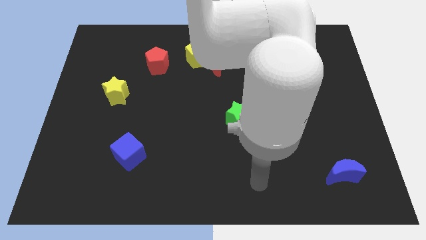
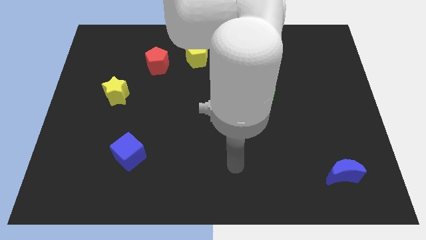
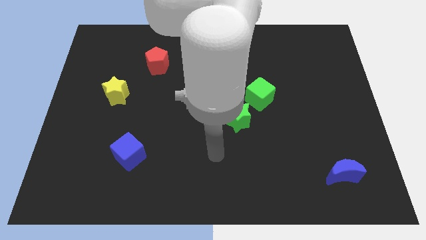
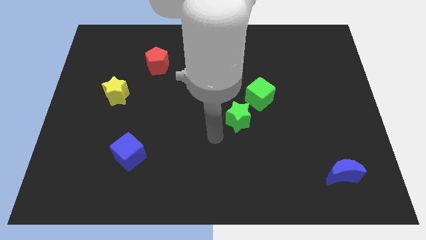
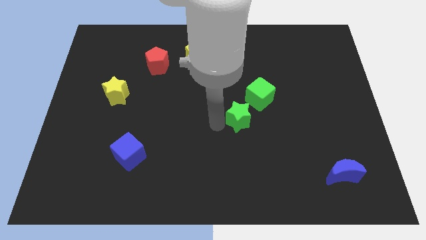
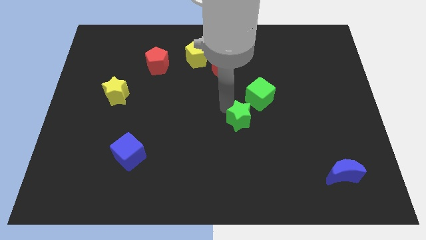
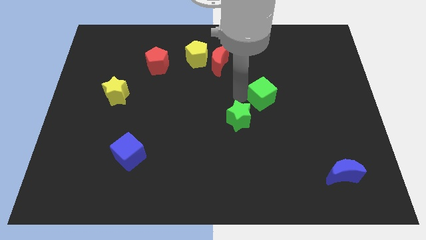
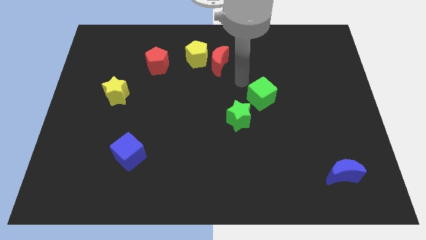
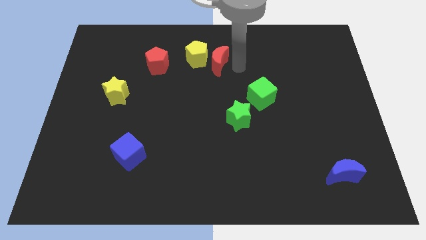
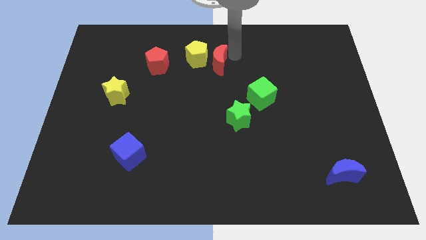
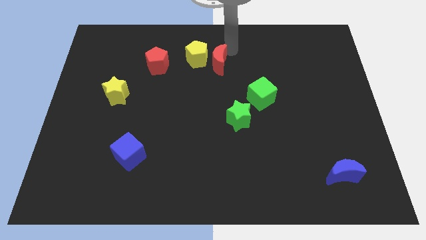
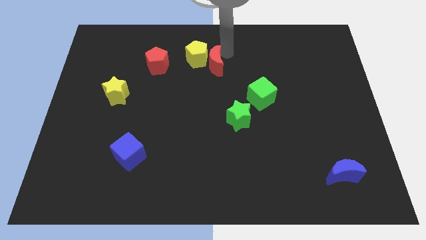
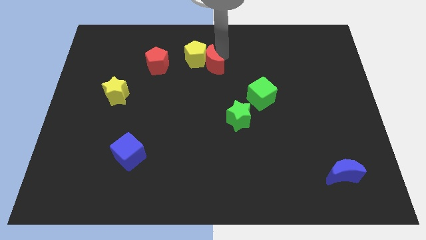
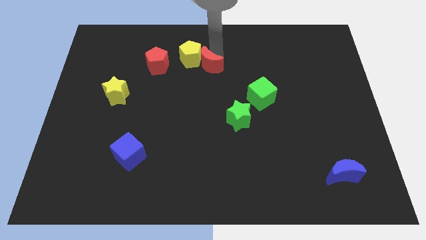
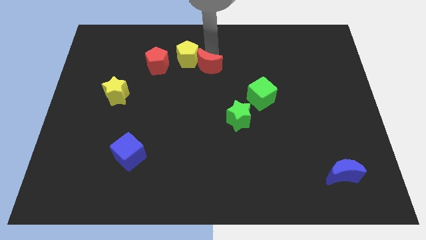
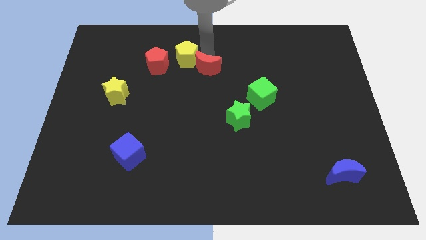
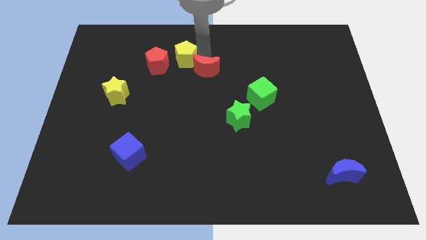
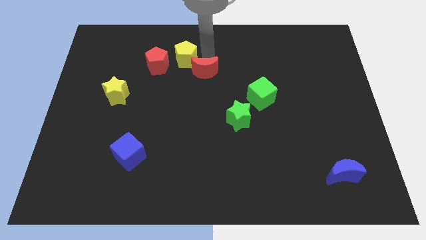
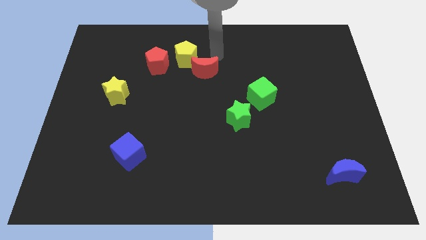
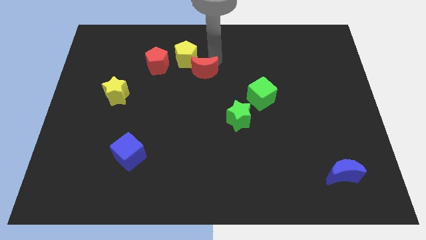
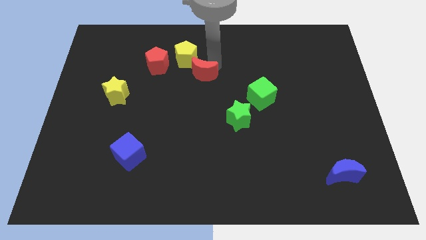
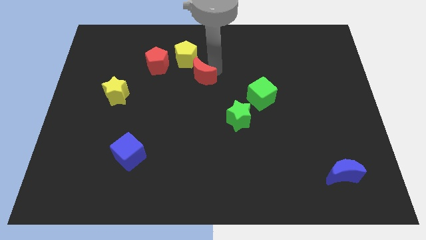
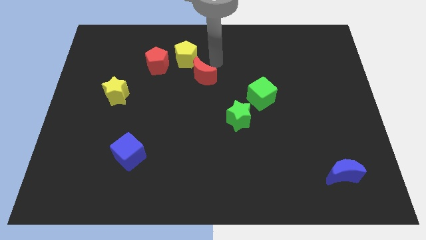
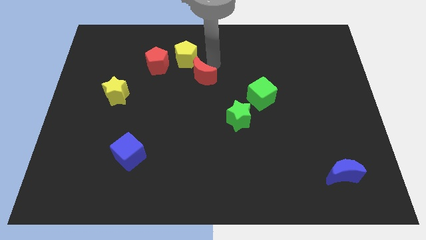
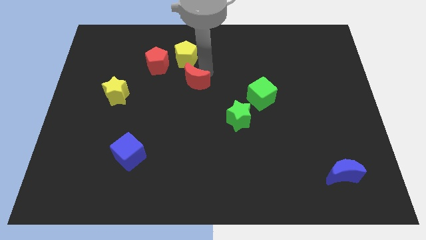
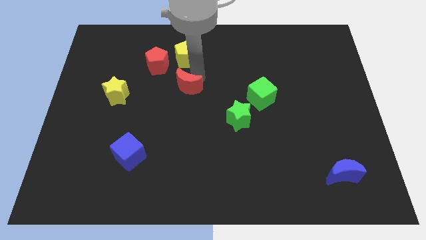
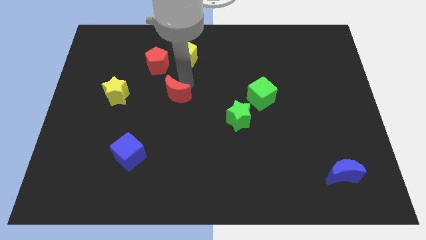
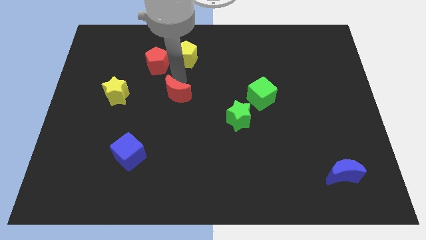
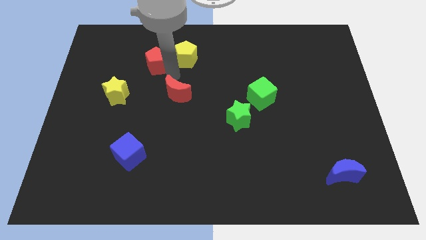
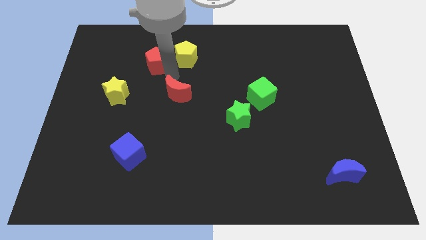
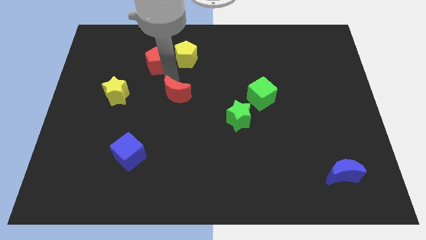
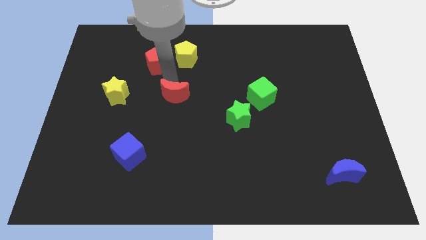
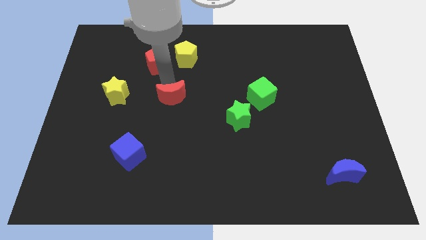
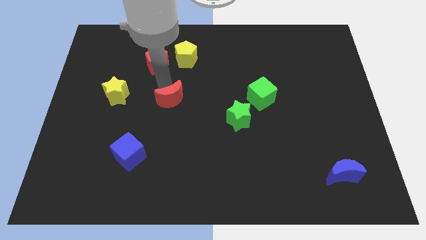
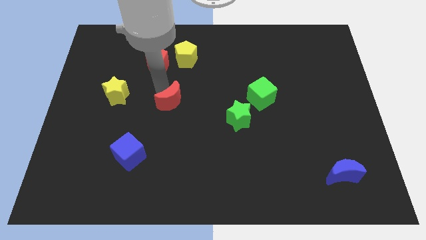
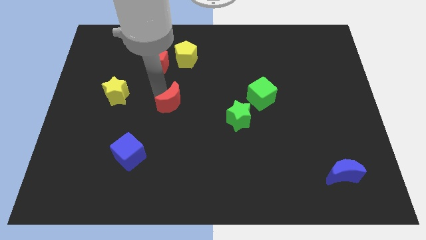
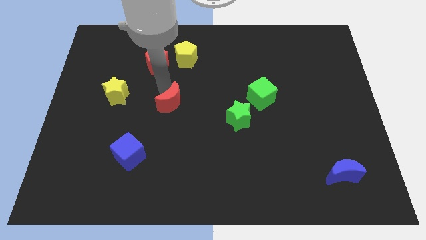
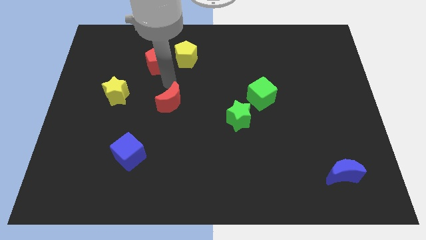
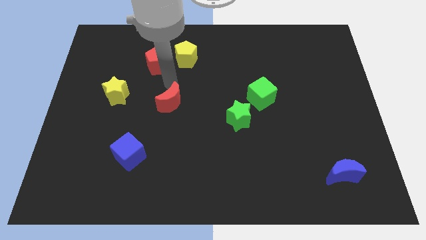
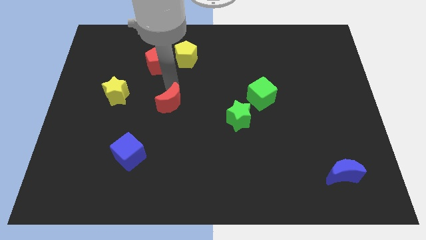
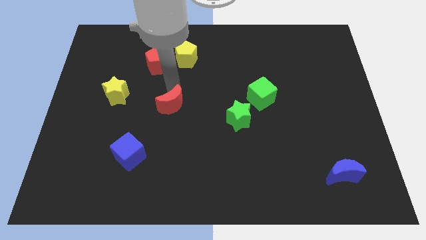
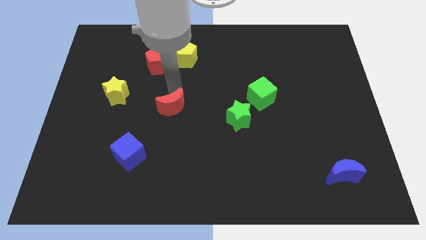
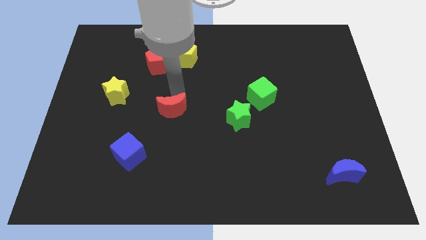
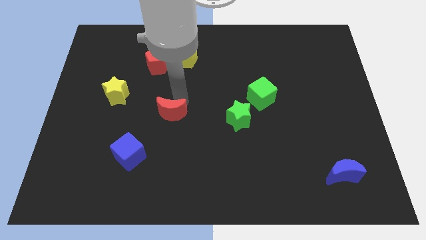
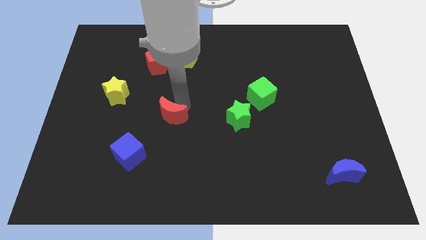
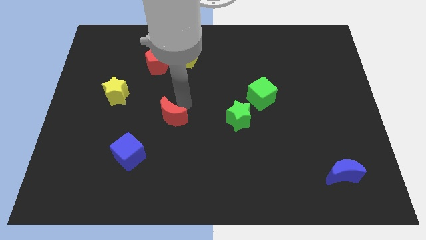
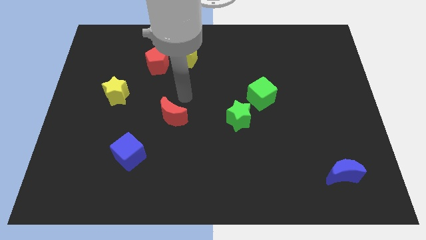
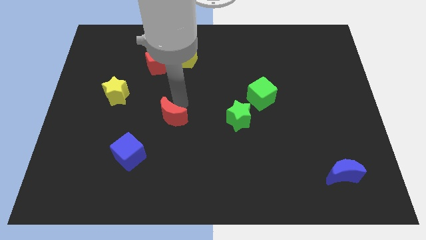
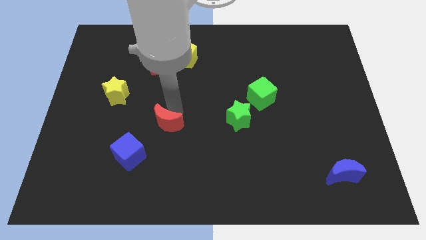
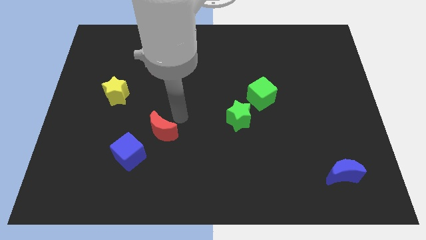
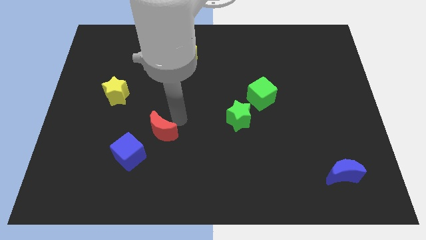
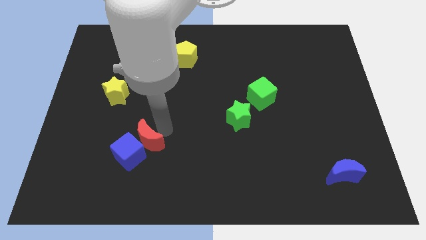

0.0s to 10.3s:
put the red moon to the blue cube

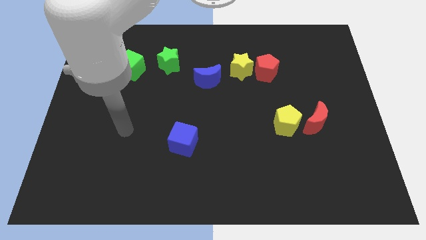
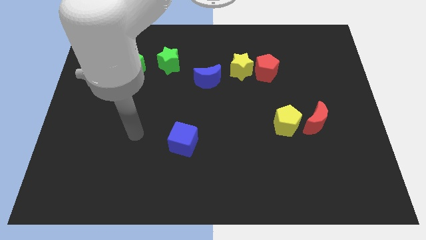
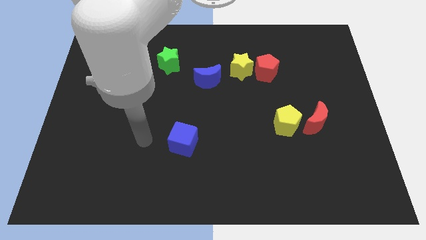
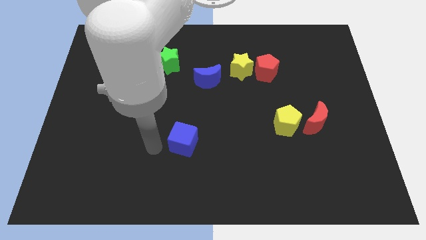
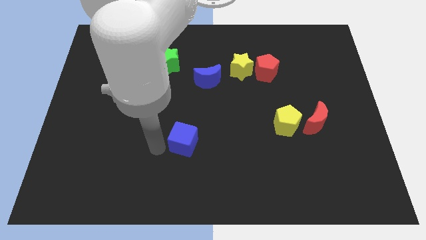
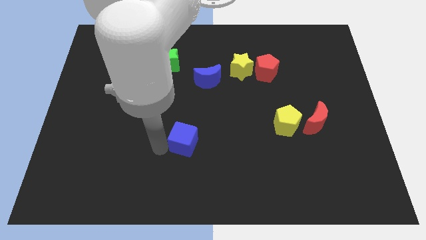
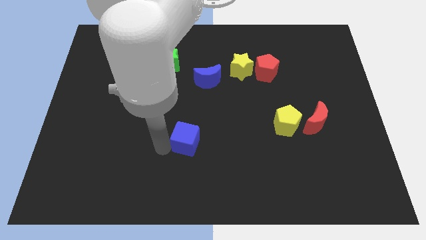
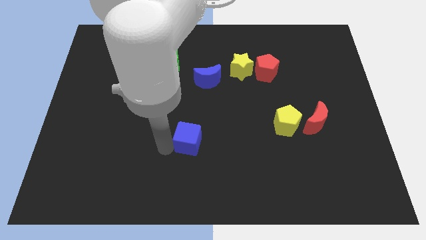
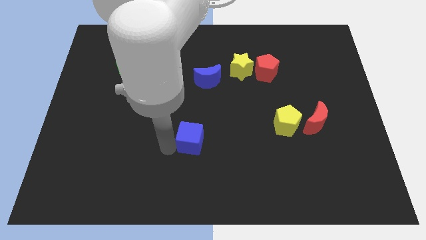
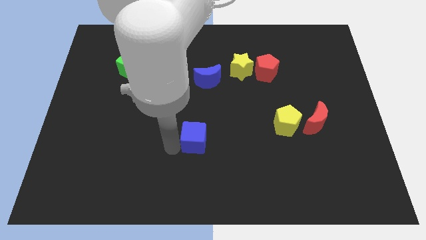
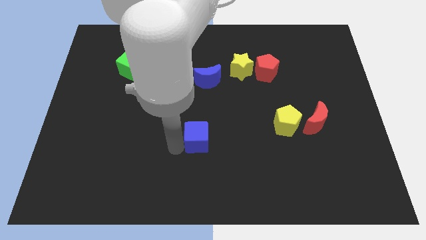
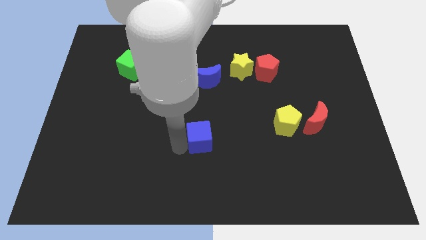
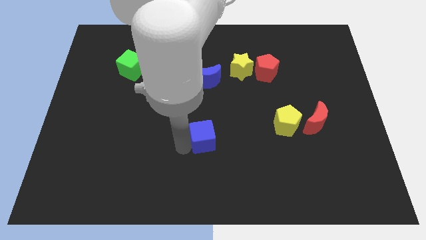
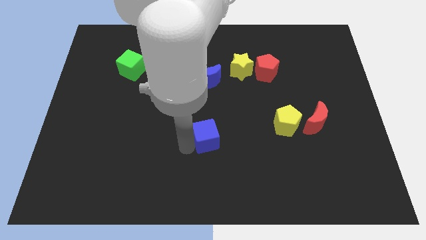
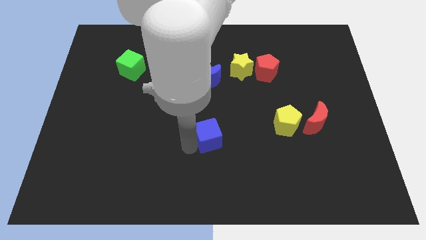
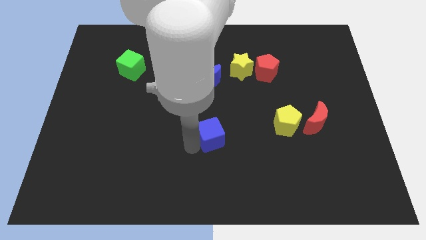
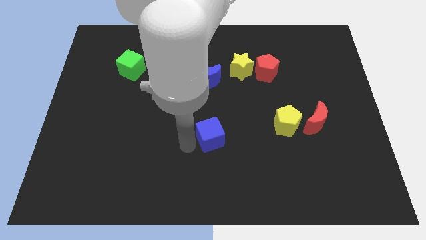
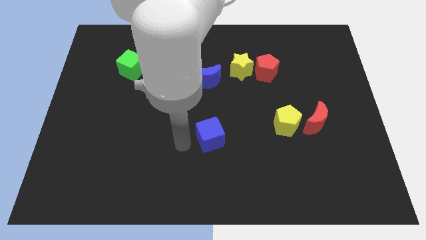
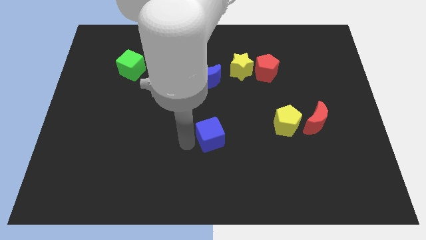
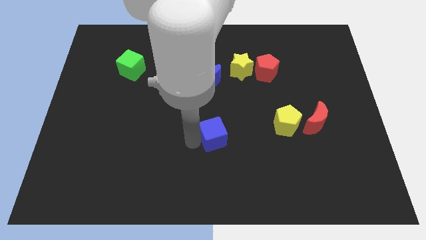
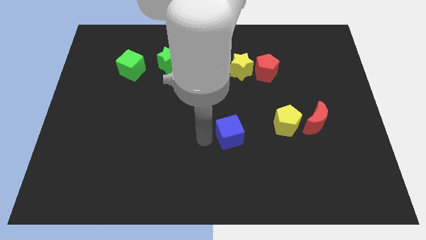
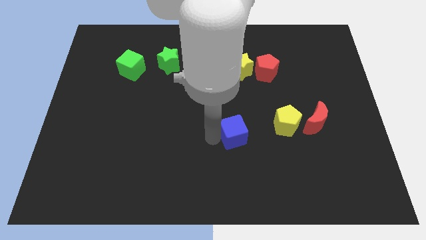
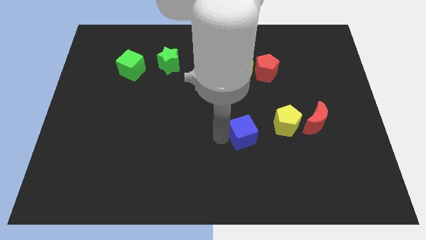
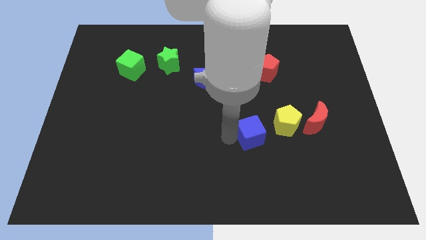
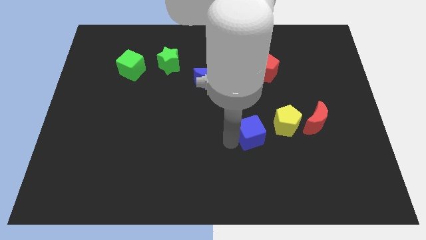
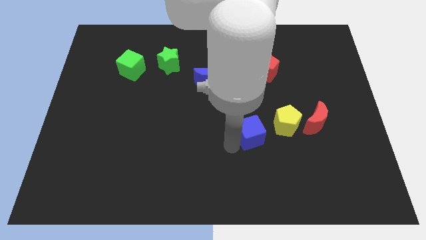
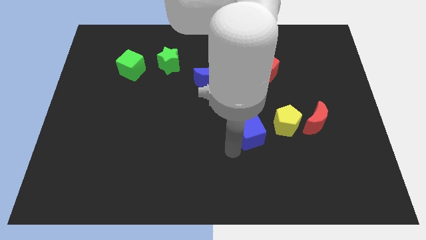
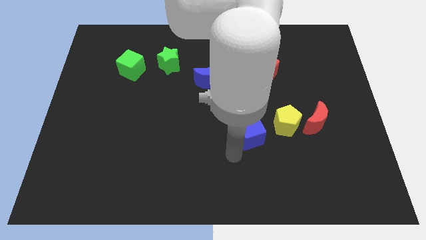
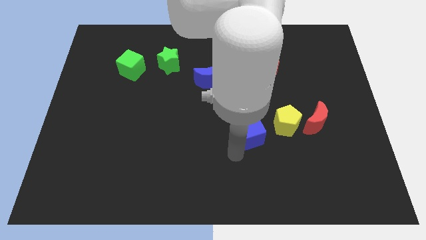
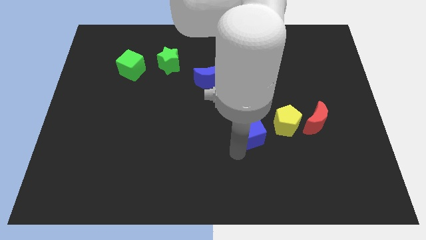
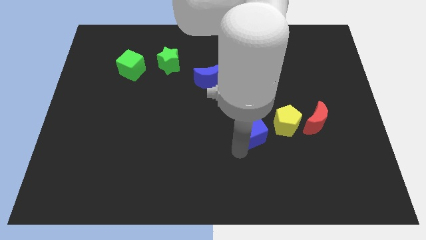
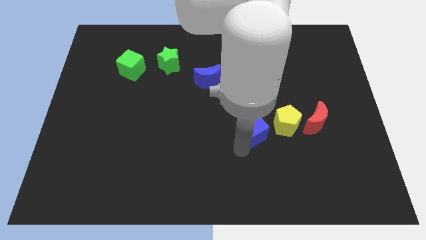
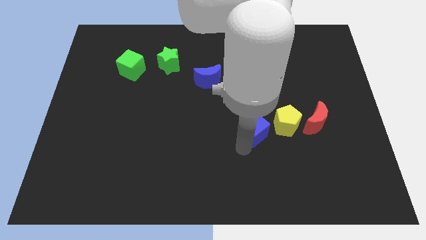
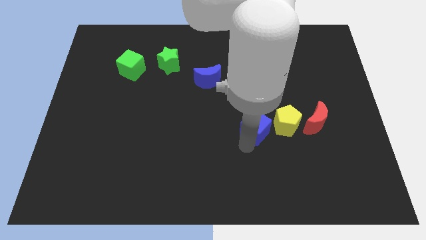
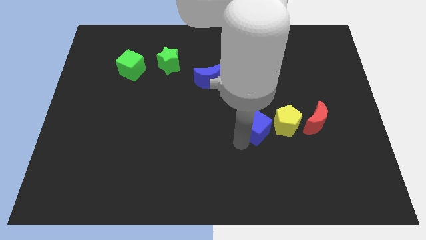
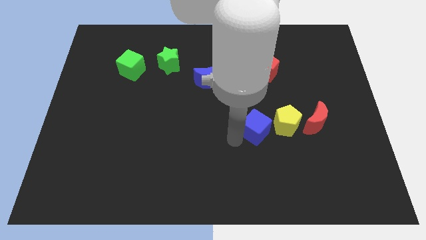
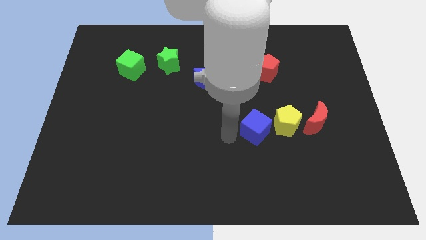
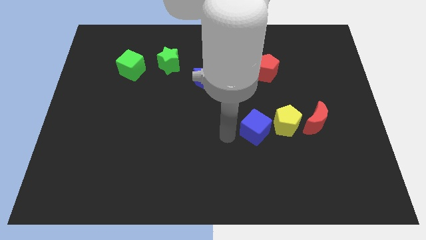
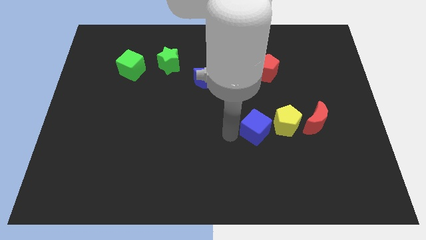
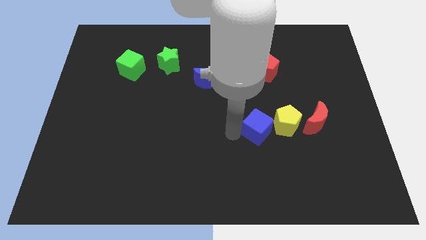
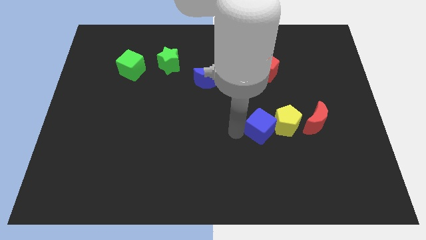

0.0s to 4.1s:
slide the blue cube towards the yellow pentagon
